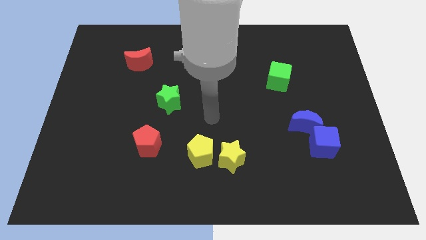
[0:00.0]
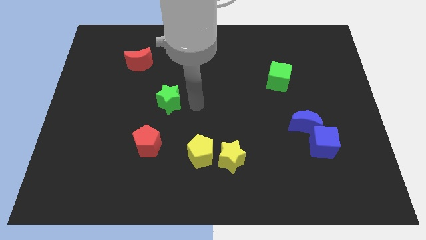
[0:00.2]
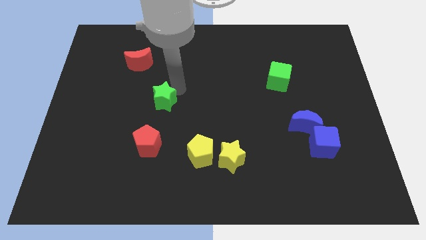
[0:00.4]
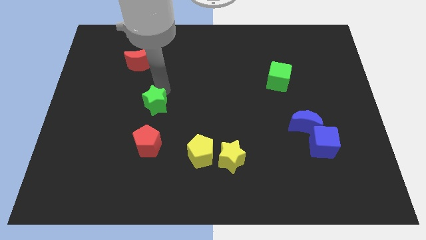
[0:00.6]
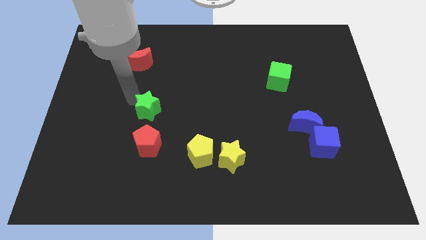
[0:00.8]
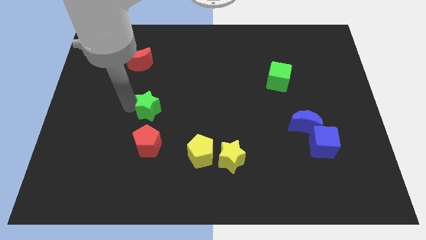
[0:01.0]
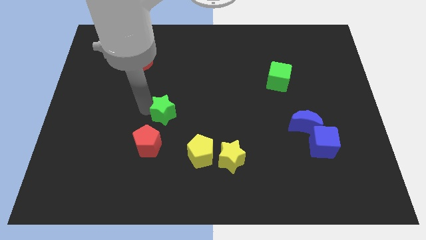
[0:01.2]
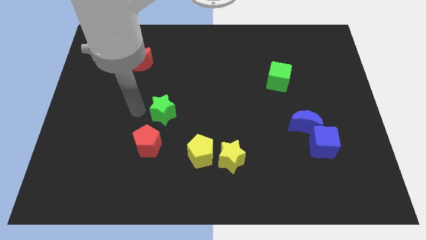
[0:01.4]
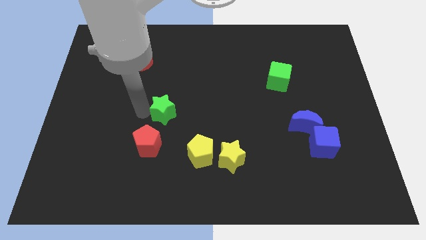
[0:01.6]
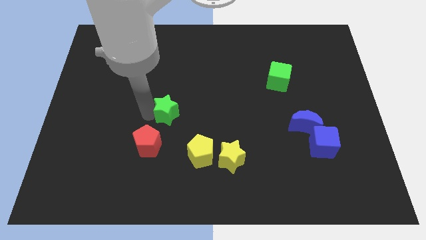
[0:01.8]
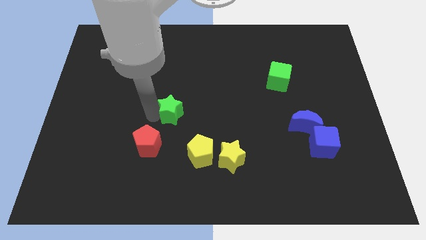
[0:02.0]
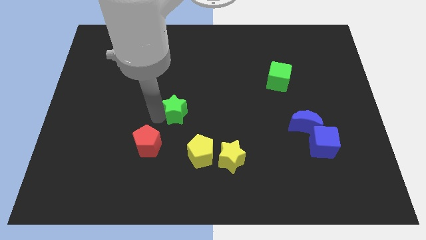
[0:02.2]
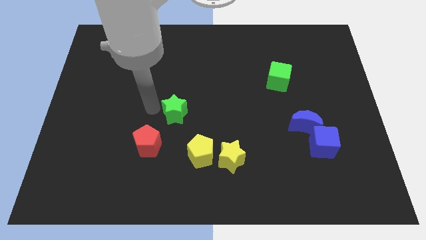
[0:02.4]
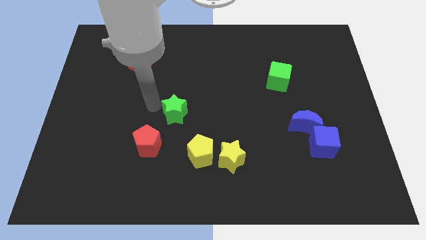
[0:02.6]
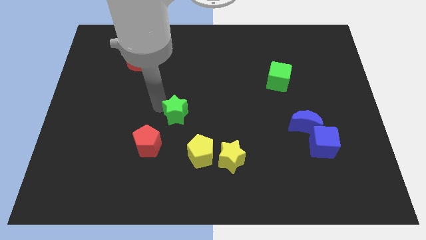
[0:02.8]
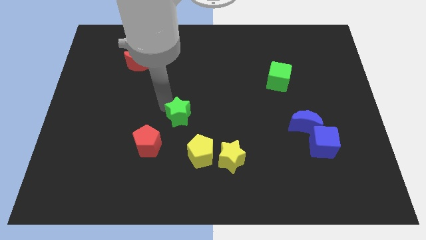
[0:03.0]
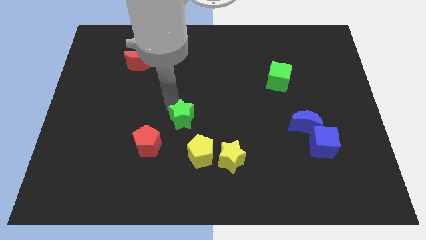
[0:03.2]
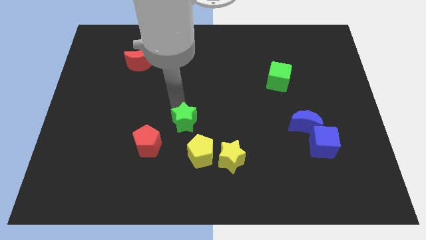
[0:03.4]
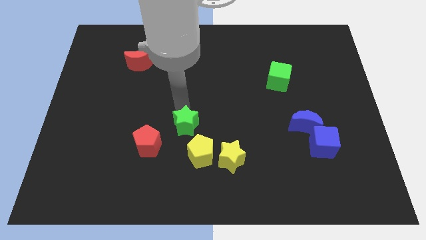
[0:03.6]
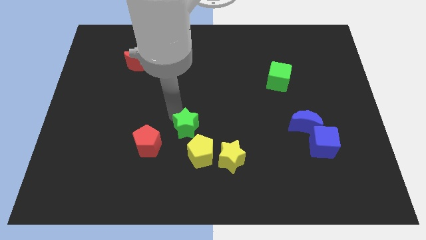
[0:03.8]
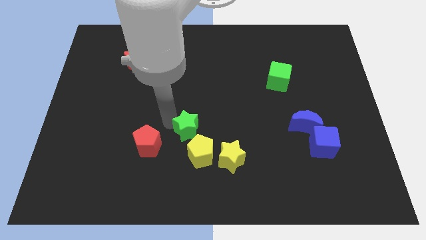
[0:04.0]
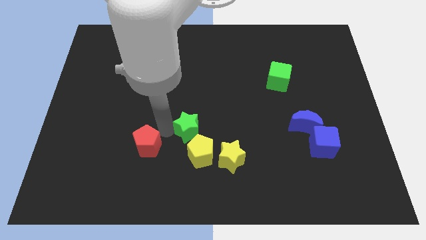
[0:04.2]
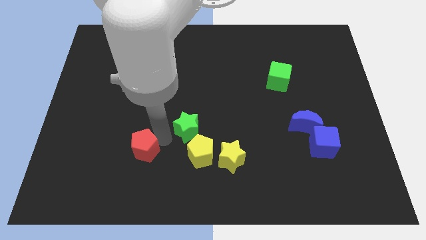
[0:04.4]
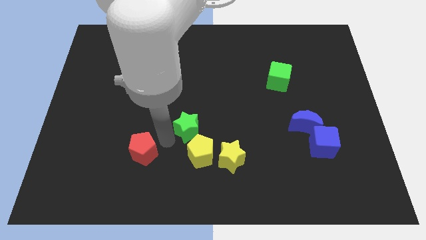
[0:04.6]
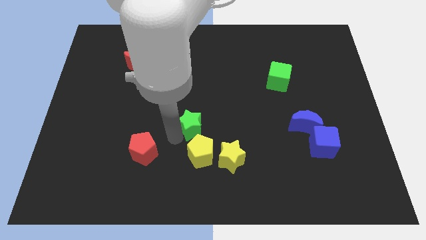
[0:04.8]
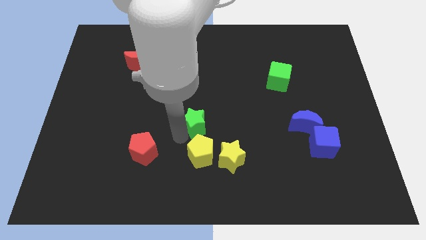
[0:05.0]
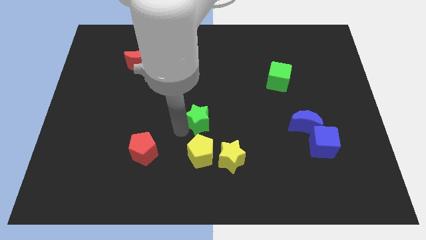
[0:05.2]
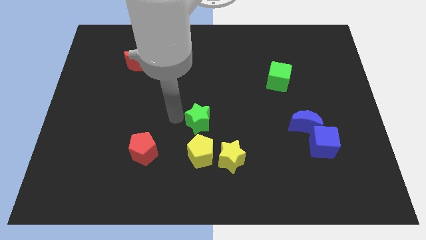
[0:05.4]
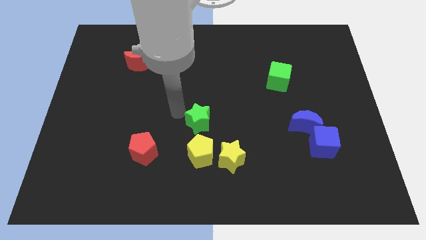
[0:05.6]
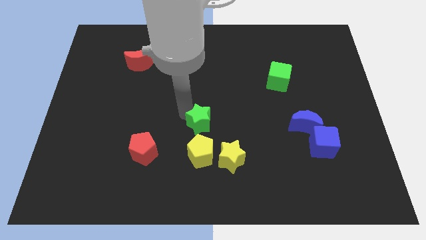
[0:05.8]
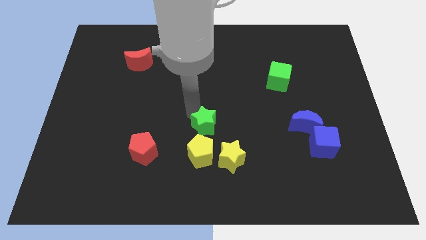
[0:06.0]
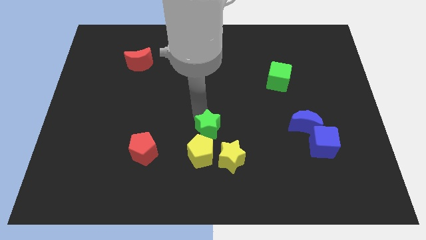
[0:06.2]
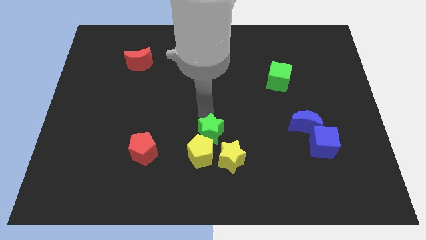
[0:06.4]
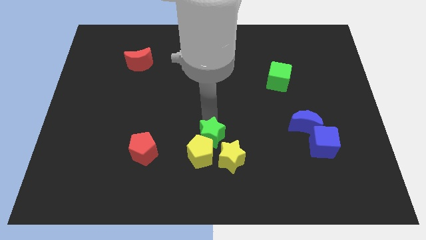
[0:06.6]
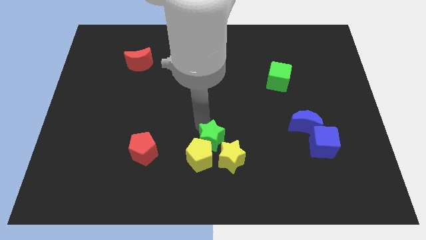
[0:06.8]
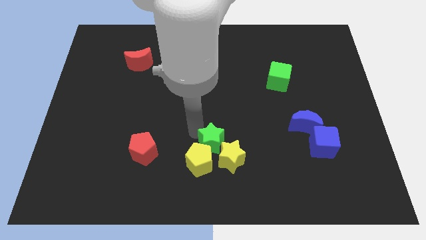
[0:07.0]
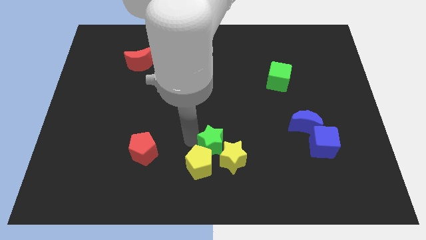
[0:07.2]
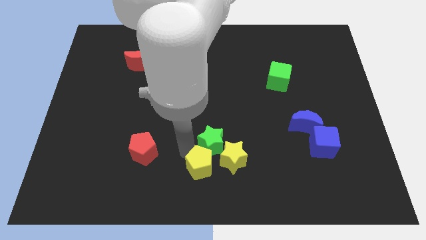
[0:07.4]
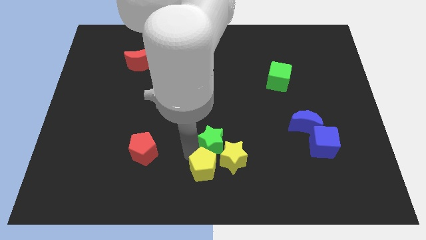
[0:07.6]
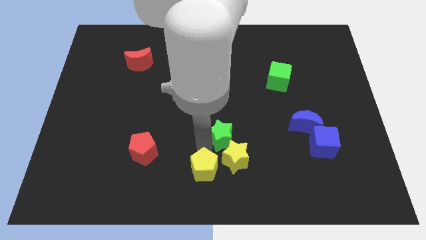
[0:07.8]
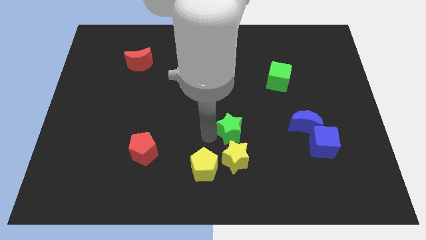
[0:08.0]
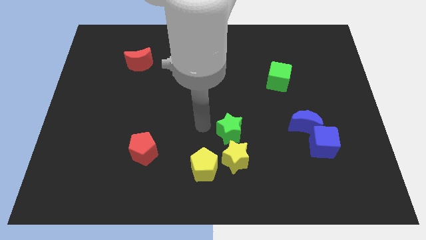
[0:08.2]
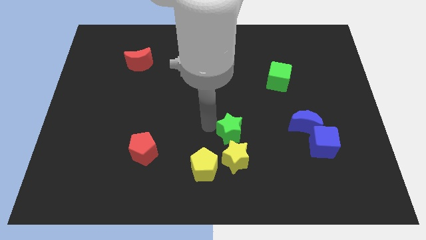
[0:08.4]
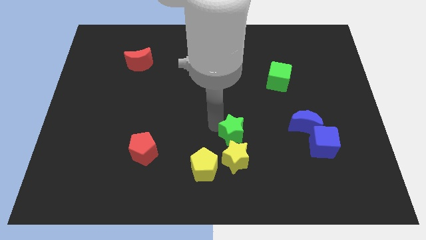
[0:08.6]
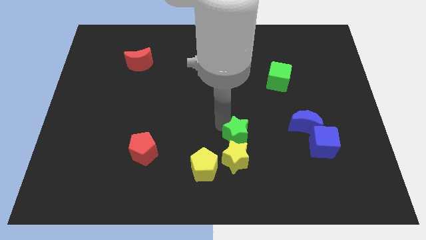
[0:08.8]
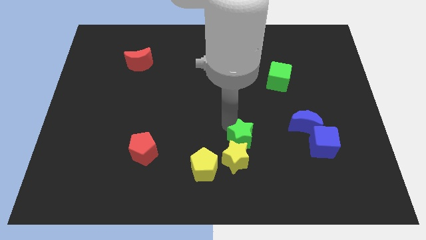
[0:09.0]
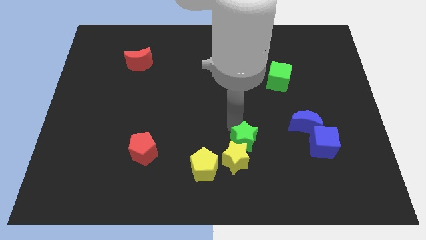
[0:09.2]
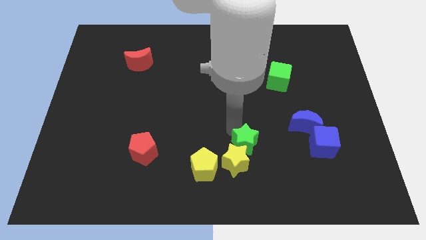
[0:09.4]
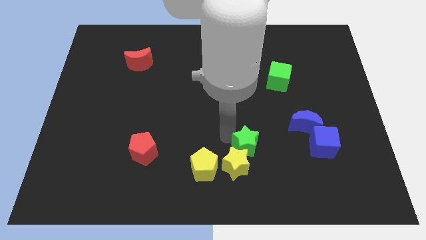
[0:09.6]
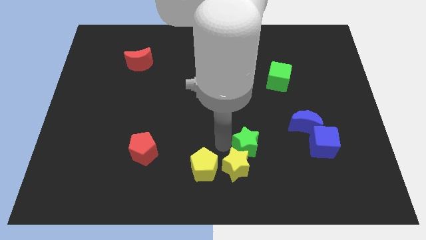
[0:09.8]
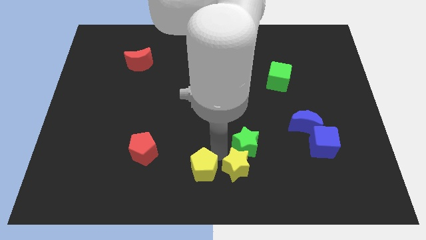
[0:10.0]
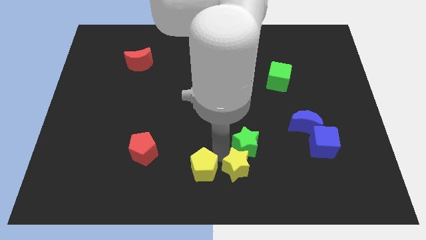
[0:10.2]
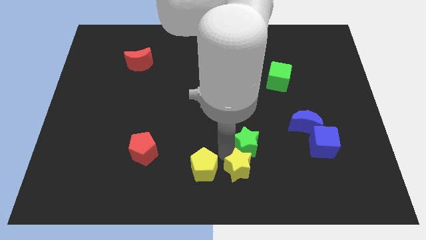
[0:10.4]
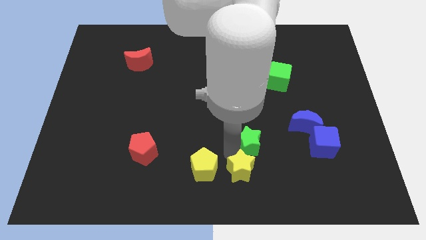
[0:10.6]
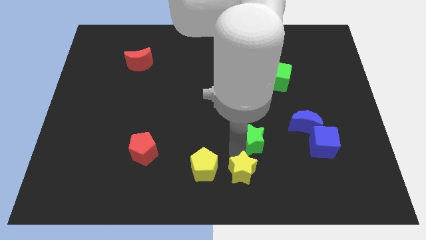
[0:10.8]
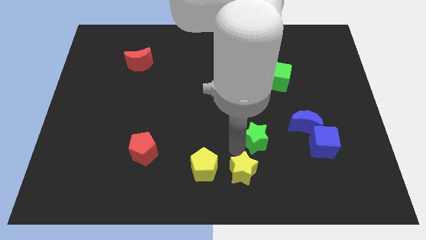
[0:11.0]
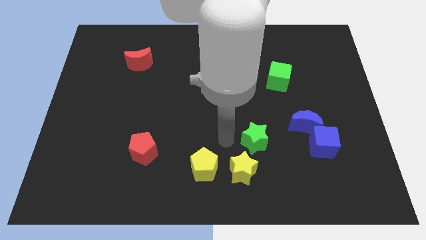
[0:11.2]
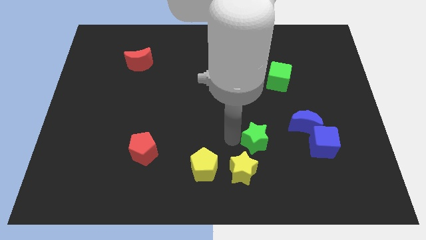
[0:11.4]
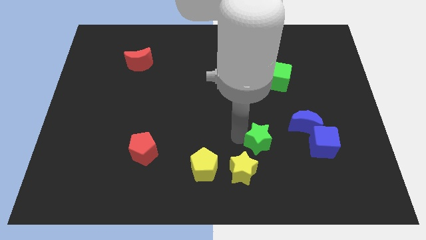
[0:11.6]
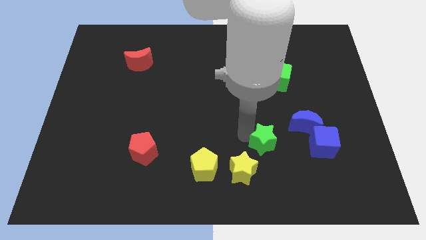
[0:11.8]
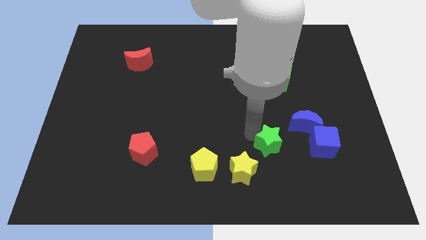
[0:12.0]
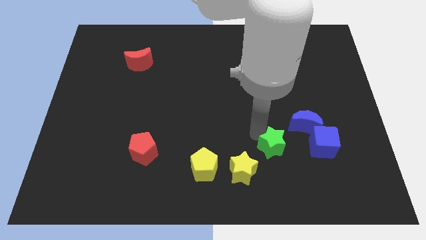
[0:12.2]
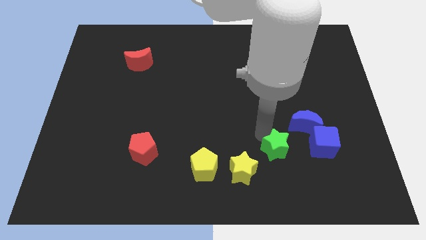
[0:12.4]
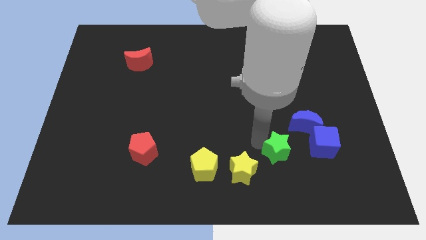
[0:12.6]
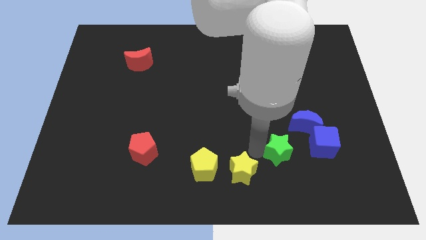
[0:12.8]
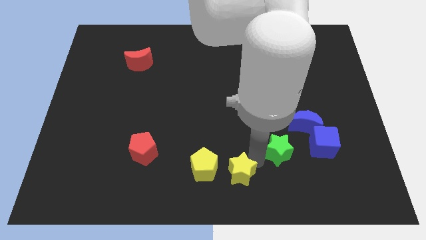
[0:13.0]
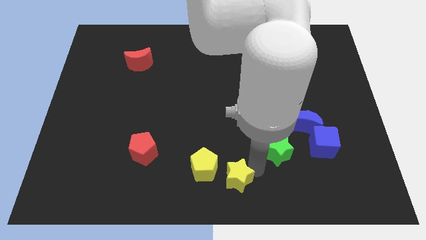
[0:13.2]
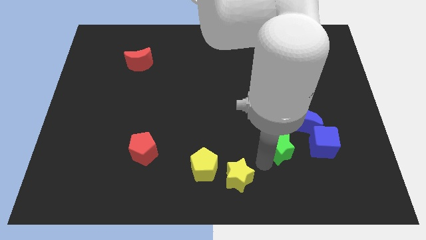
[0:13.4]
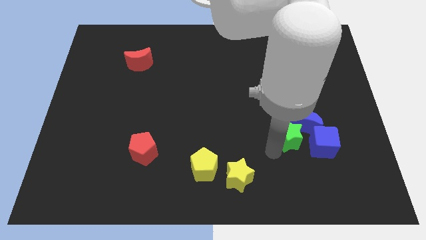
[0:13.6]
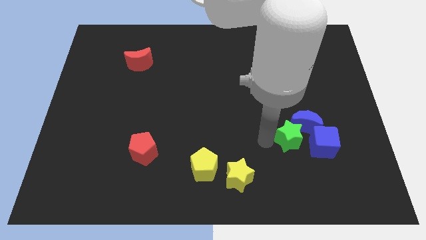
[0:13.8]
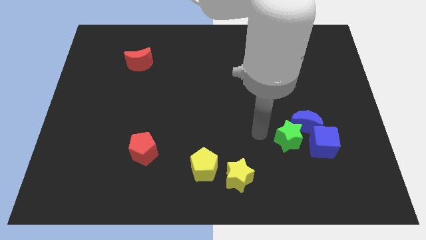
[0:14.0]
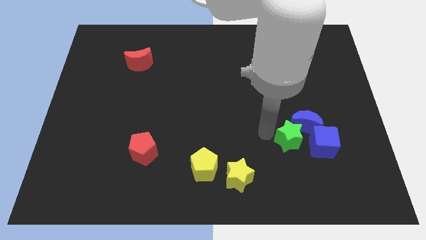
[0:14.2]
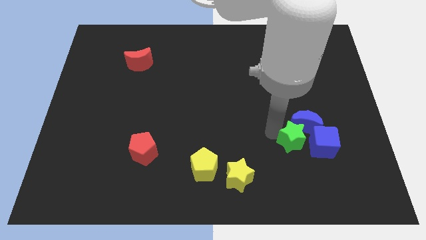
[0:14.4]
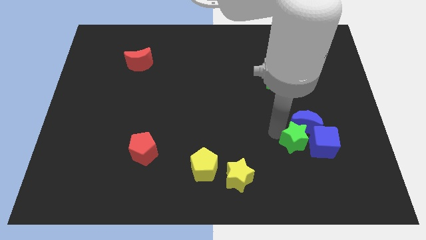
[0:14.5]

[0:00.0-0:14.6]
push the green star to the blue cube
